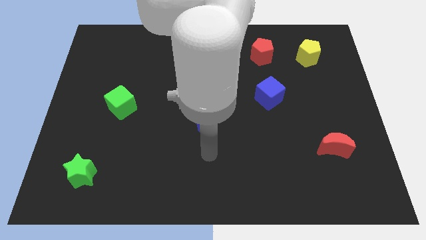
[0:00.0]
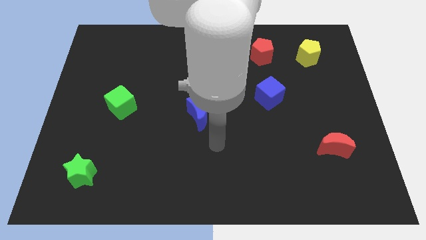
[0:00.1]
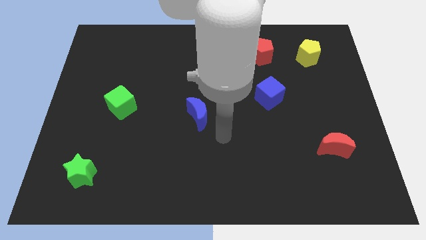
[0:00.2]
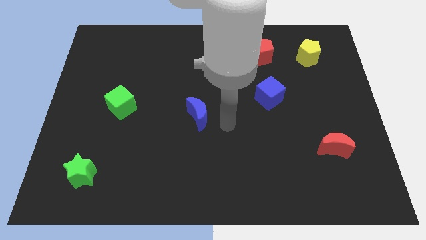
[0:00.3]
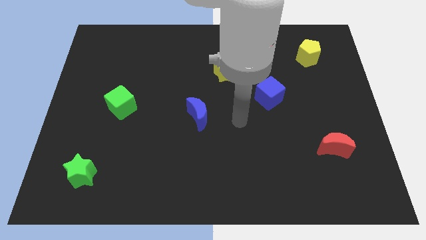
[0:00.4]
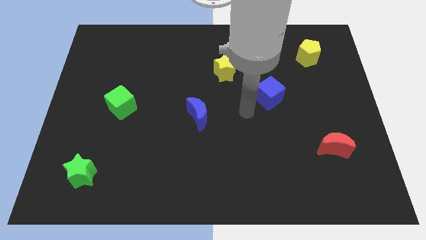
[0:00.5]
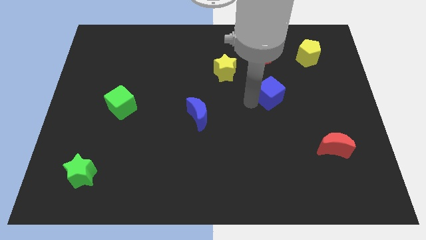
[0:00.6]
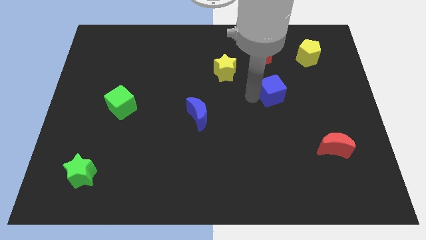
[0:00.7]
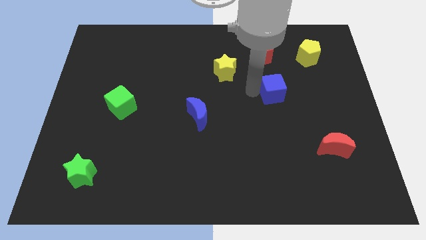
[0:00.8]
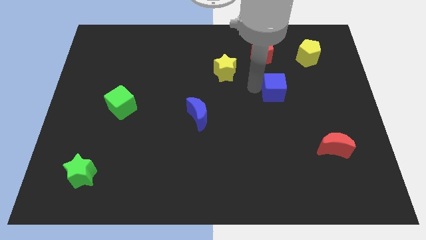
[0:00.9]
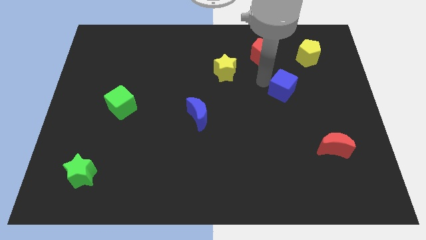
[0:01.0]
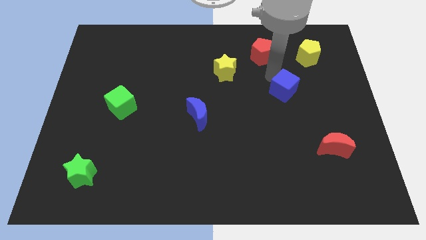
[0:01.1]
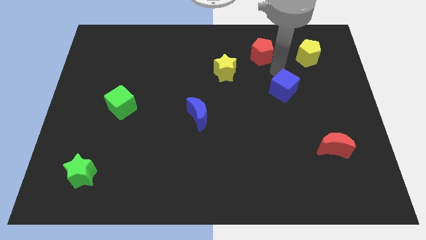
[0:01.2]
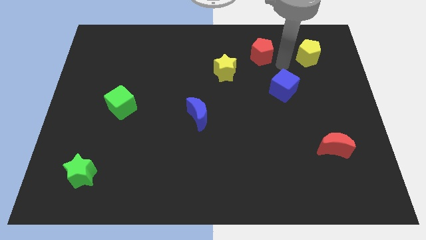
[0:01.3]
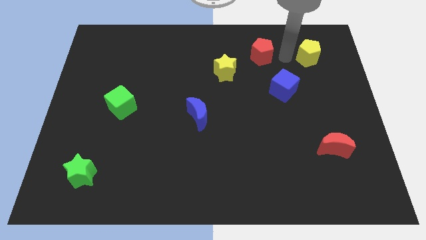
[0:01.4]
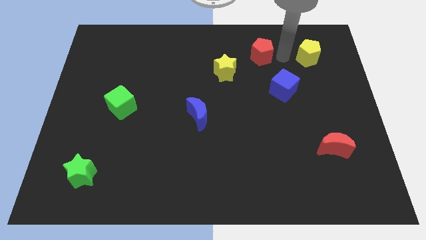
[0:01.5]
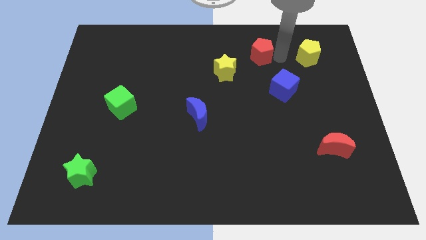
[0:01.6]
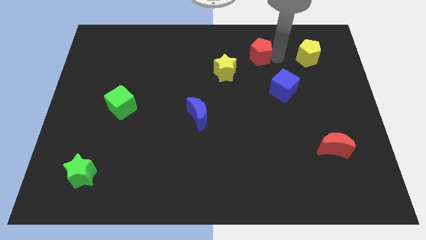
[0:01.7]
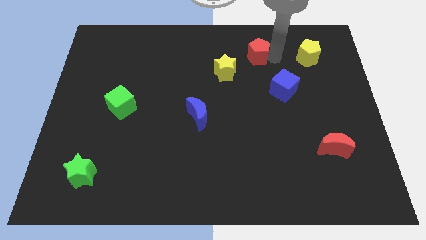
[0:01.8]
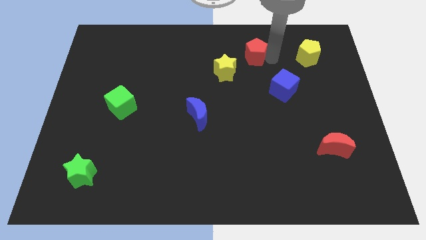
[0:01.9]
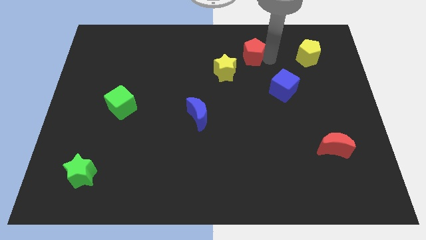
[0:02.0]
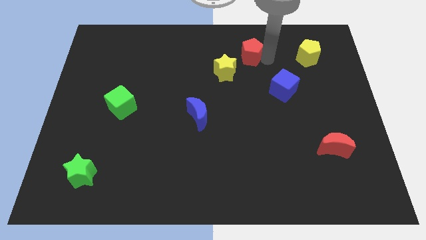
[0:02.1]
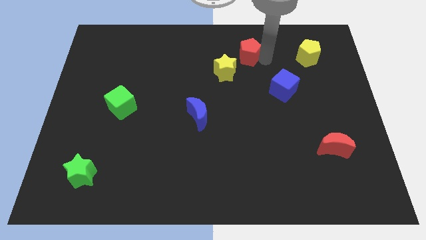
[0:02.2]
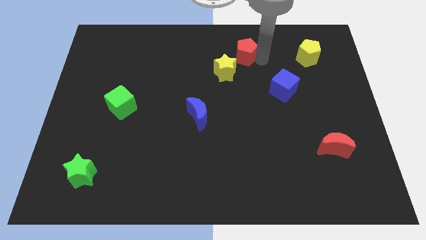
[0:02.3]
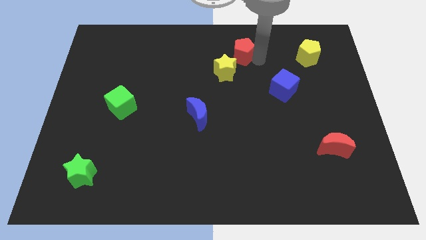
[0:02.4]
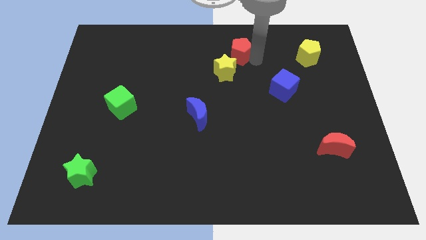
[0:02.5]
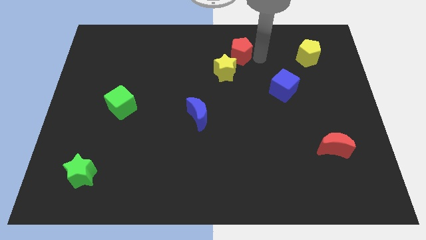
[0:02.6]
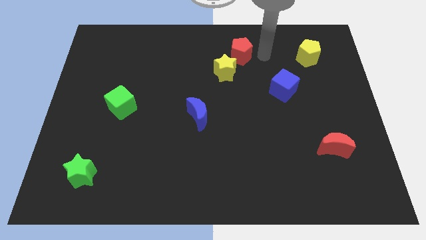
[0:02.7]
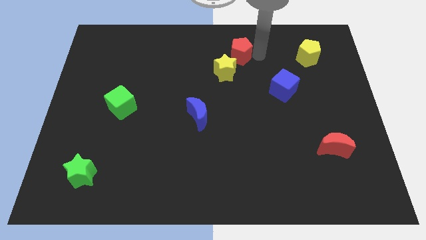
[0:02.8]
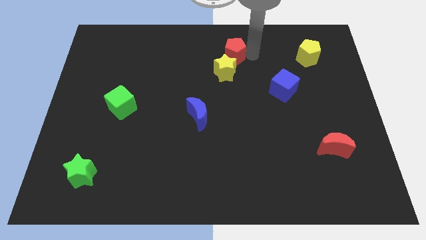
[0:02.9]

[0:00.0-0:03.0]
slightly push the red pentagon left

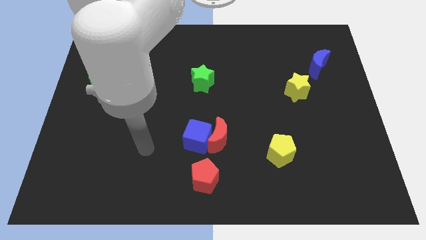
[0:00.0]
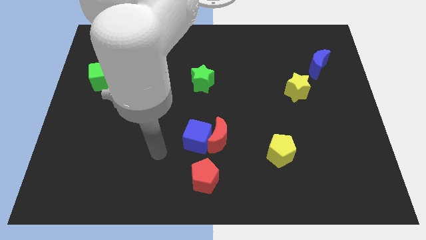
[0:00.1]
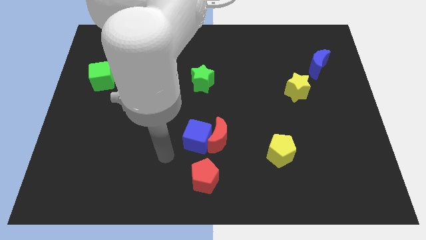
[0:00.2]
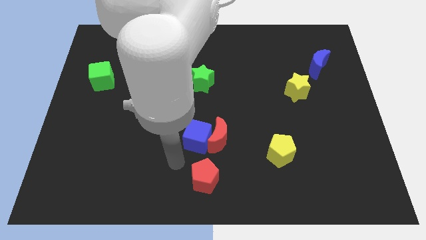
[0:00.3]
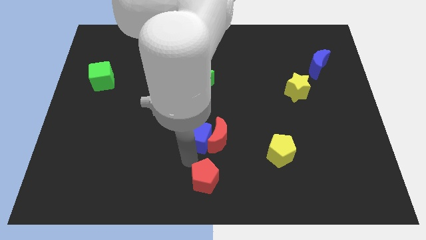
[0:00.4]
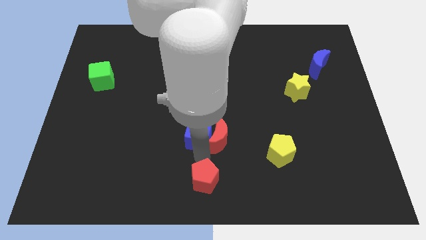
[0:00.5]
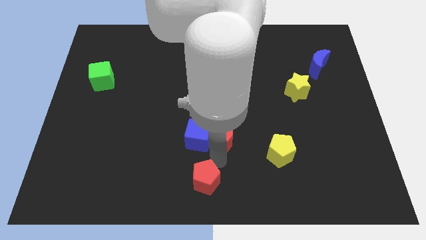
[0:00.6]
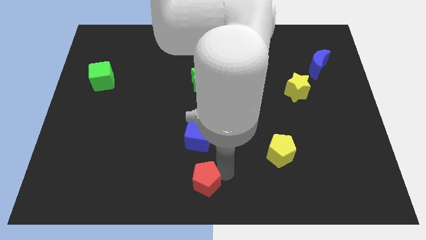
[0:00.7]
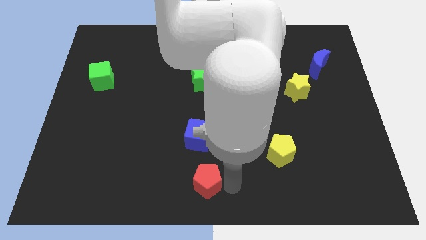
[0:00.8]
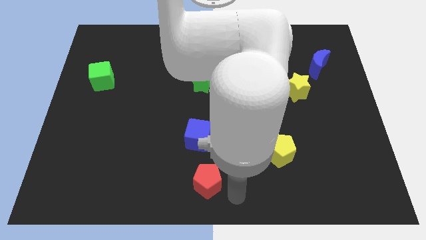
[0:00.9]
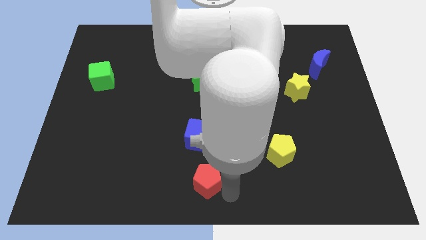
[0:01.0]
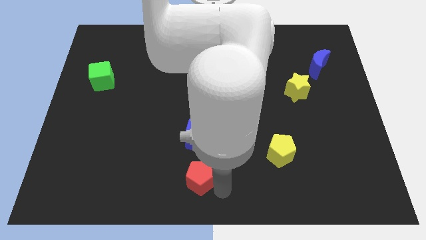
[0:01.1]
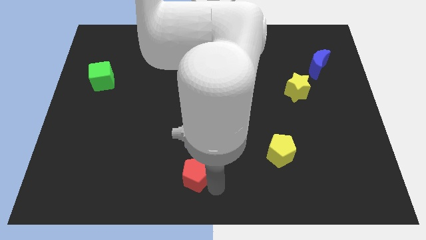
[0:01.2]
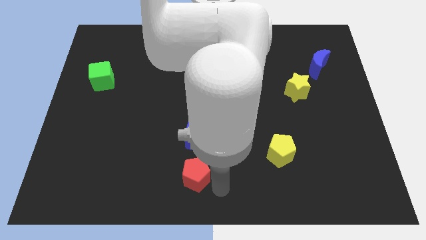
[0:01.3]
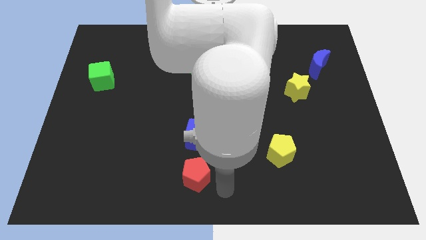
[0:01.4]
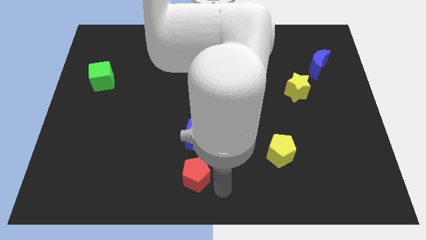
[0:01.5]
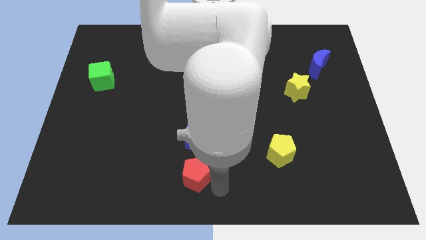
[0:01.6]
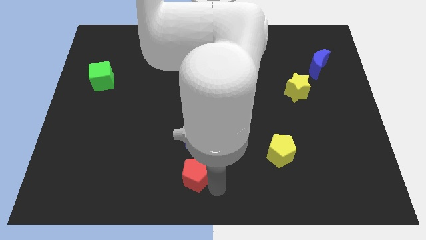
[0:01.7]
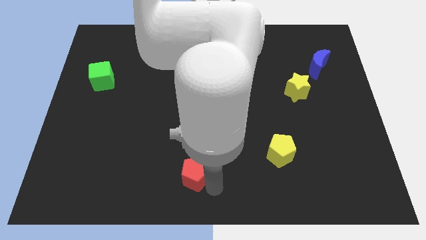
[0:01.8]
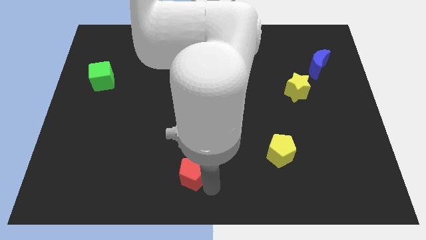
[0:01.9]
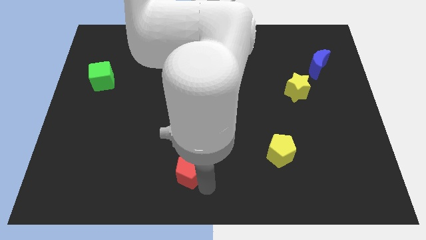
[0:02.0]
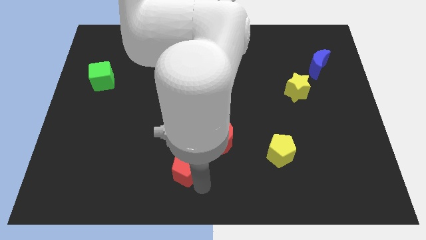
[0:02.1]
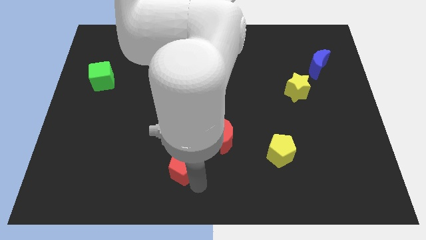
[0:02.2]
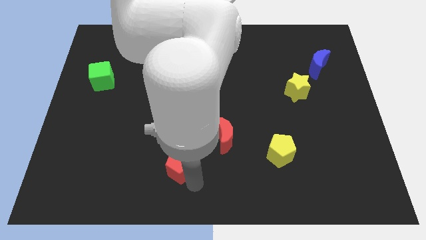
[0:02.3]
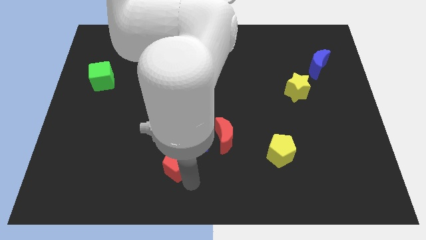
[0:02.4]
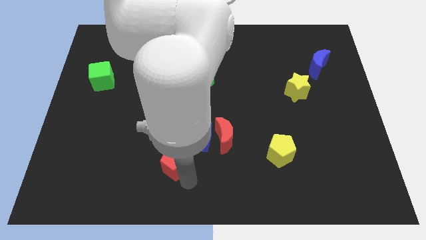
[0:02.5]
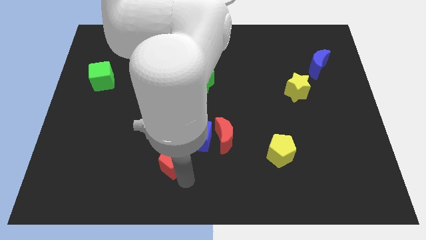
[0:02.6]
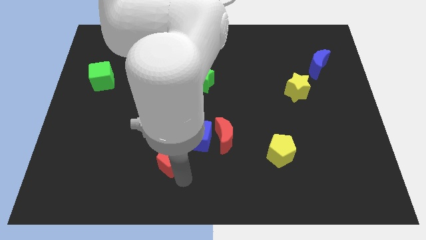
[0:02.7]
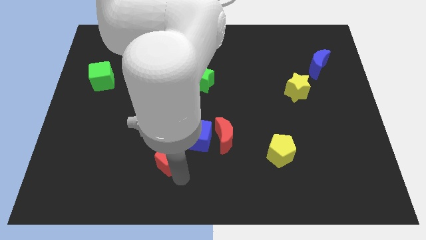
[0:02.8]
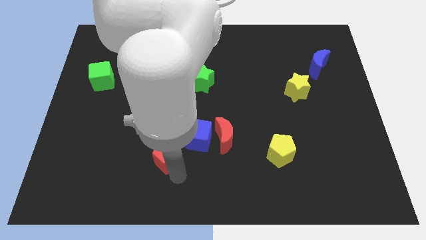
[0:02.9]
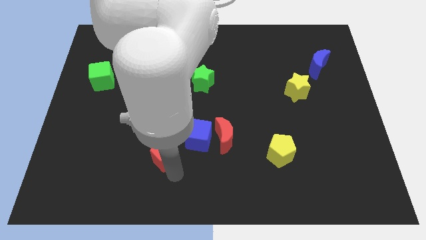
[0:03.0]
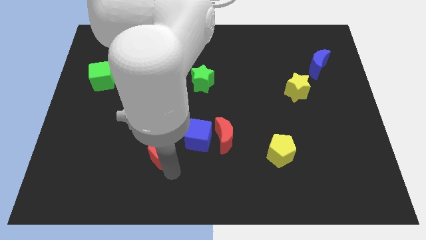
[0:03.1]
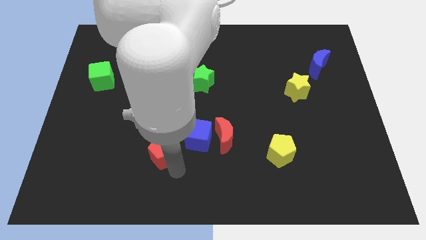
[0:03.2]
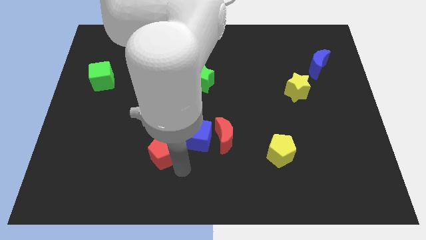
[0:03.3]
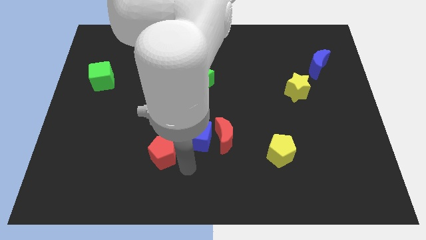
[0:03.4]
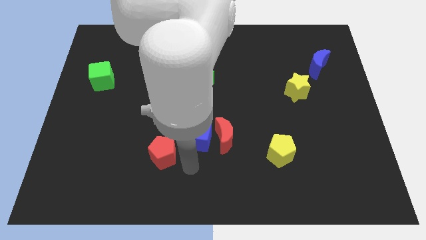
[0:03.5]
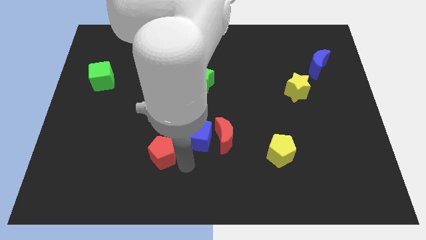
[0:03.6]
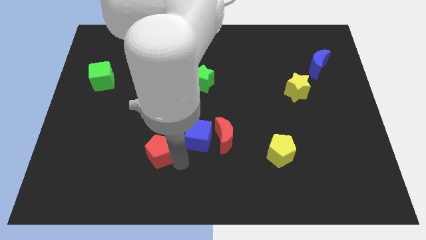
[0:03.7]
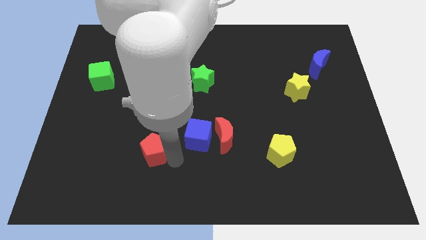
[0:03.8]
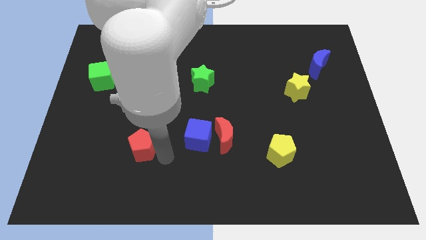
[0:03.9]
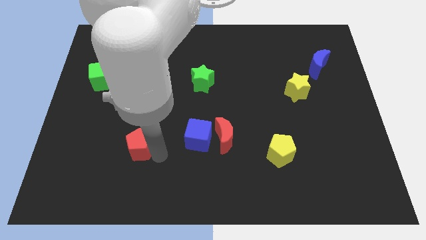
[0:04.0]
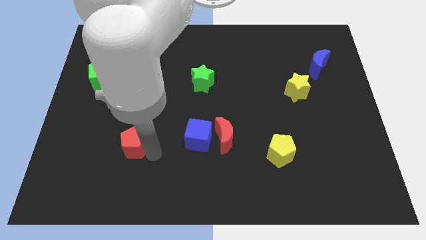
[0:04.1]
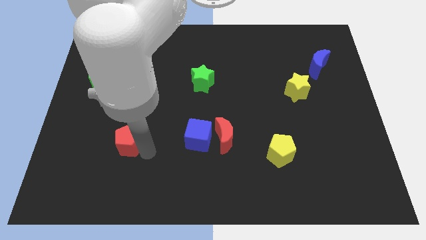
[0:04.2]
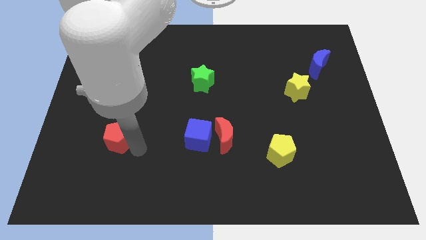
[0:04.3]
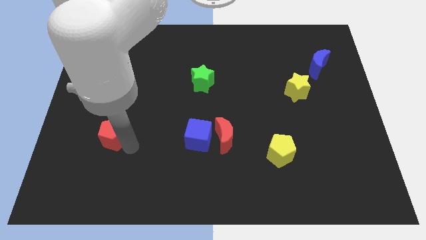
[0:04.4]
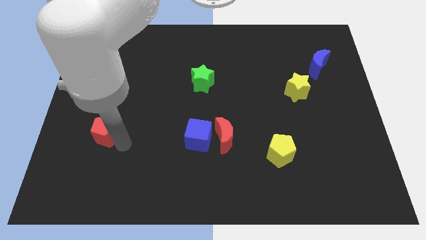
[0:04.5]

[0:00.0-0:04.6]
push the red pentagon up and then left

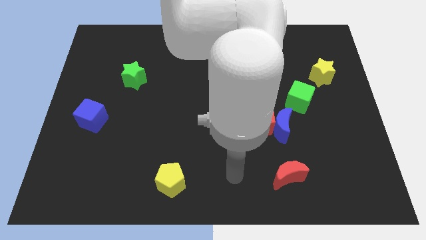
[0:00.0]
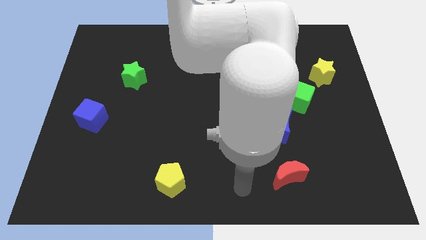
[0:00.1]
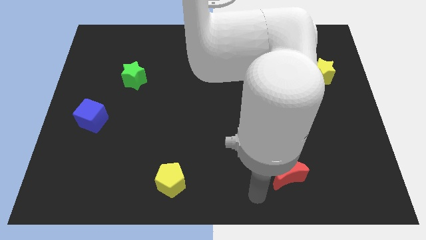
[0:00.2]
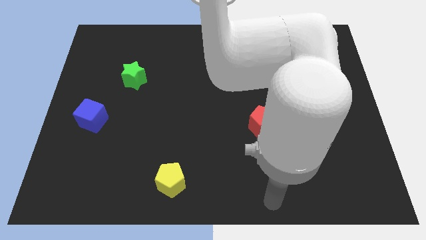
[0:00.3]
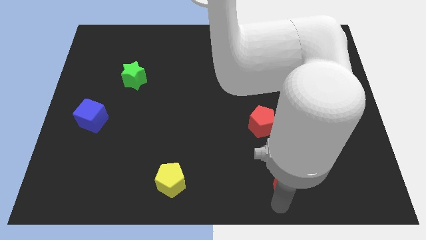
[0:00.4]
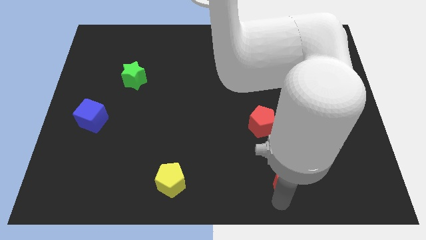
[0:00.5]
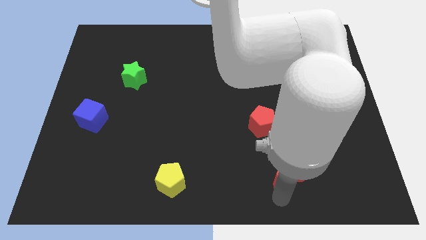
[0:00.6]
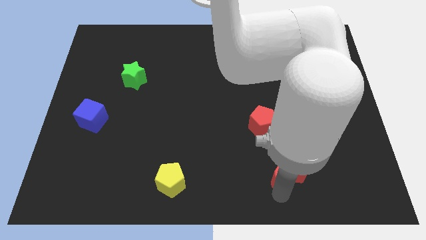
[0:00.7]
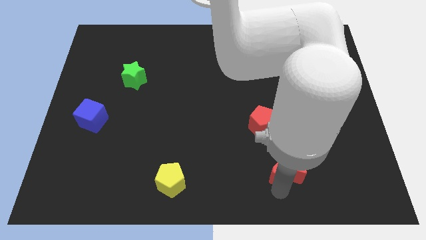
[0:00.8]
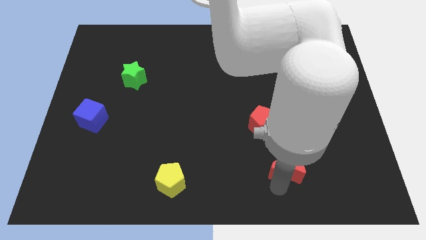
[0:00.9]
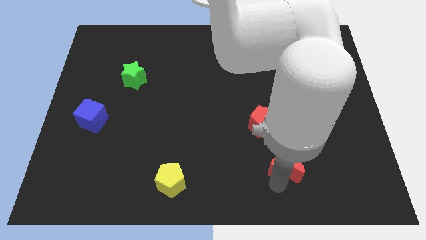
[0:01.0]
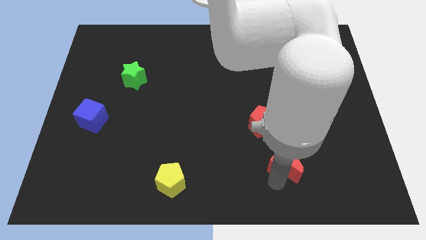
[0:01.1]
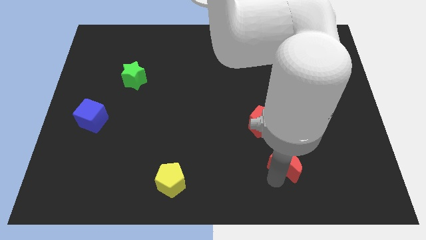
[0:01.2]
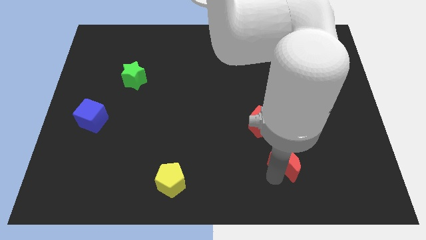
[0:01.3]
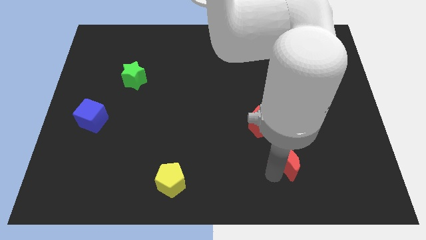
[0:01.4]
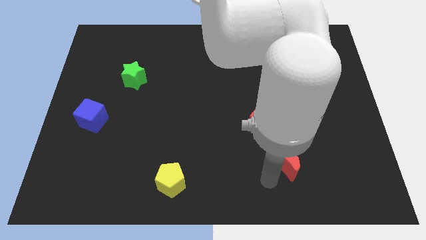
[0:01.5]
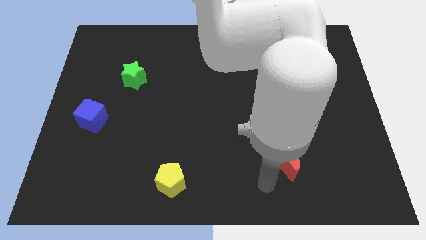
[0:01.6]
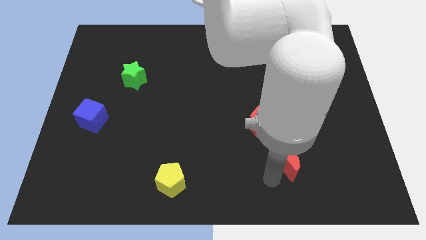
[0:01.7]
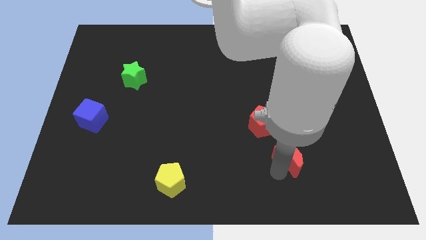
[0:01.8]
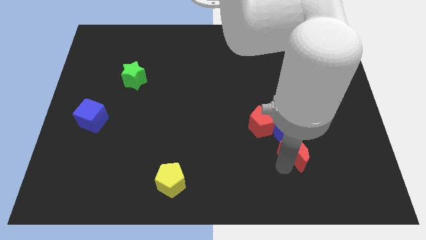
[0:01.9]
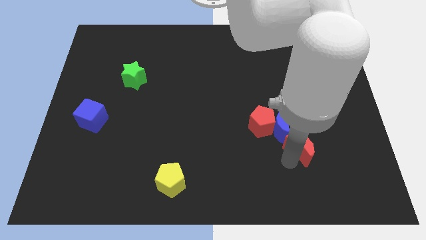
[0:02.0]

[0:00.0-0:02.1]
slightly move the red moon diagonally up and right
